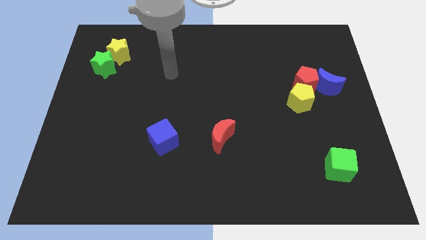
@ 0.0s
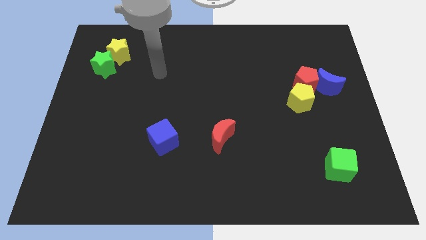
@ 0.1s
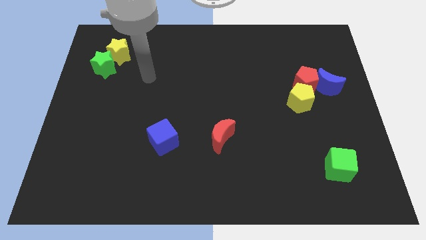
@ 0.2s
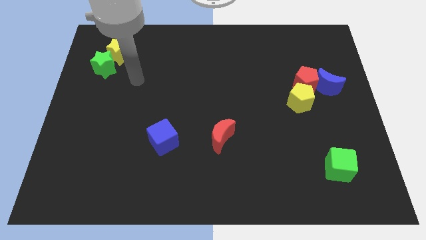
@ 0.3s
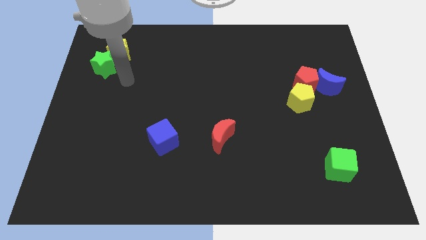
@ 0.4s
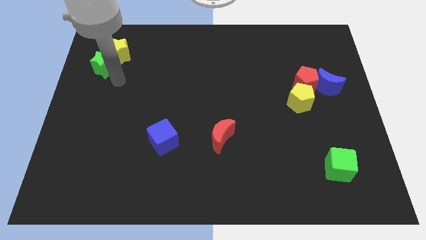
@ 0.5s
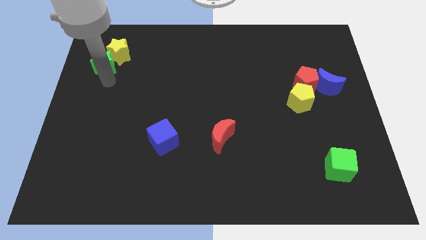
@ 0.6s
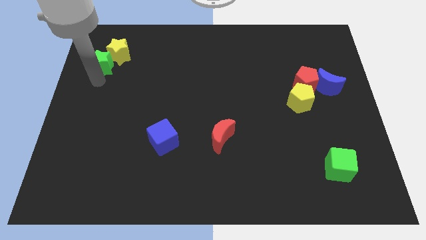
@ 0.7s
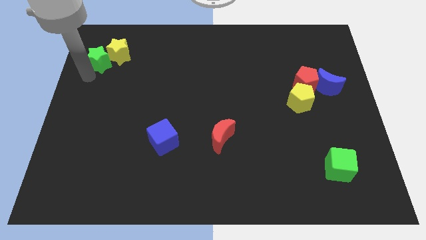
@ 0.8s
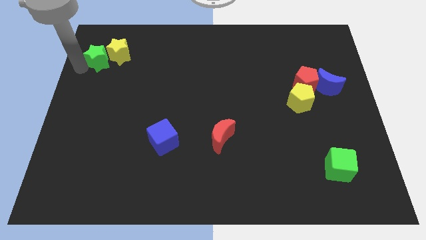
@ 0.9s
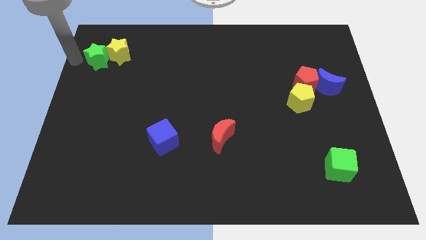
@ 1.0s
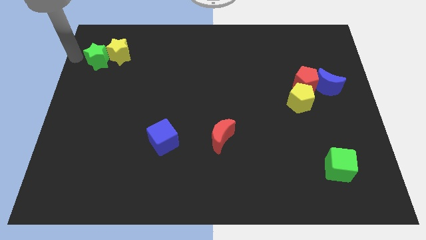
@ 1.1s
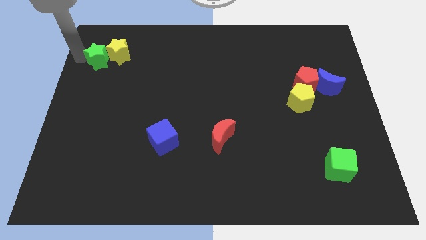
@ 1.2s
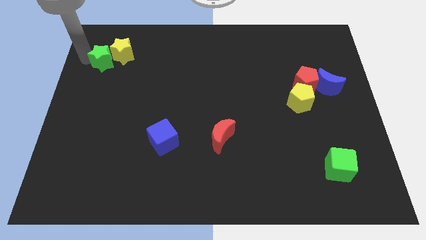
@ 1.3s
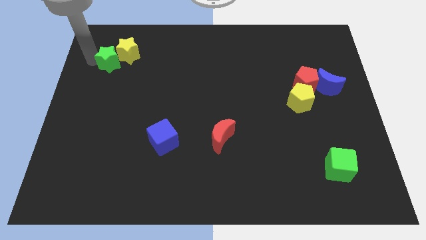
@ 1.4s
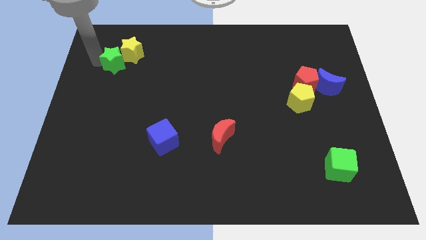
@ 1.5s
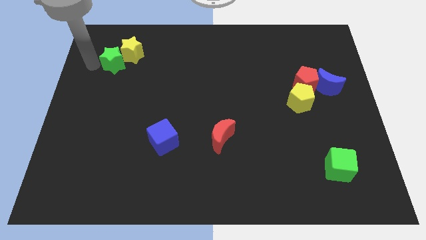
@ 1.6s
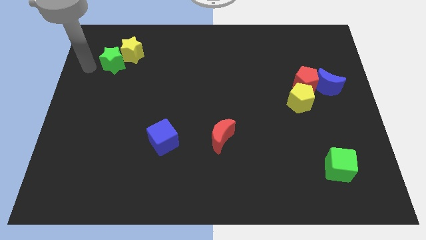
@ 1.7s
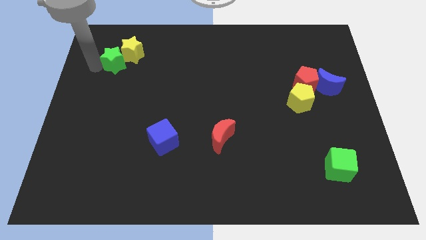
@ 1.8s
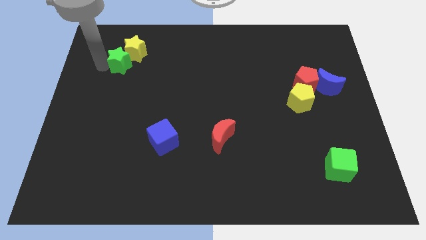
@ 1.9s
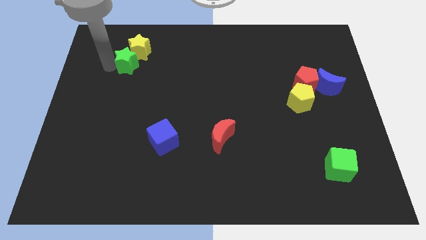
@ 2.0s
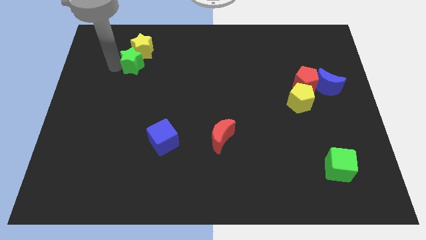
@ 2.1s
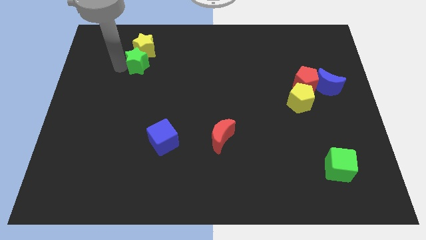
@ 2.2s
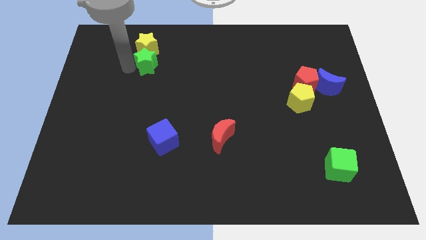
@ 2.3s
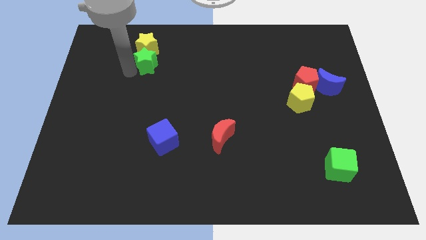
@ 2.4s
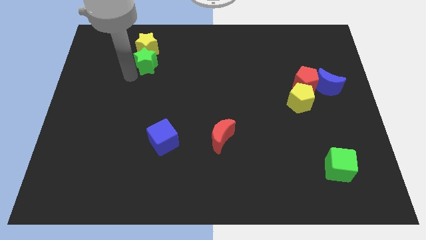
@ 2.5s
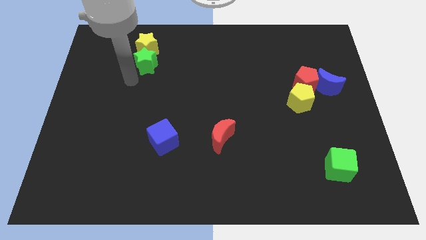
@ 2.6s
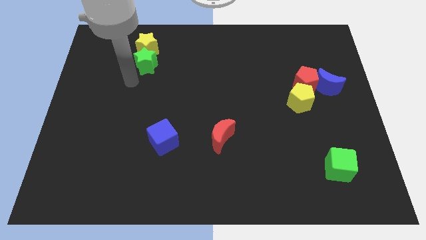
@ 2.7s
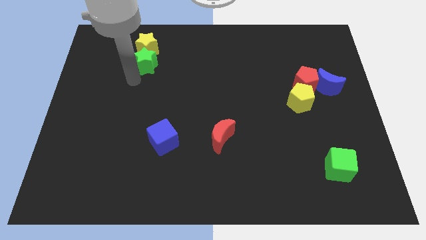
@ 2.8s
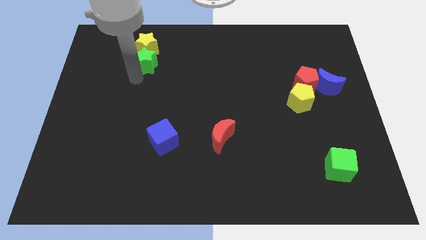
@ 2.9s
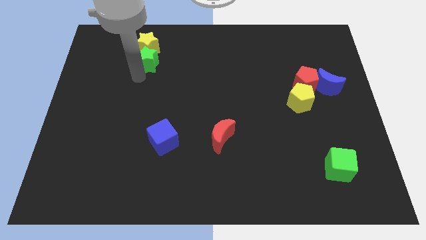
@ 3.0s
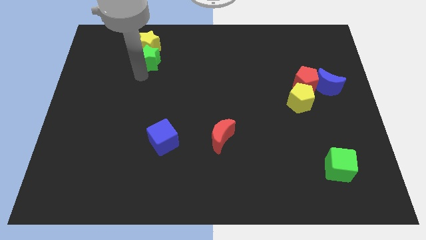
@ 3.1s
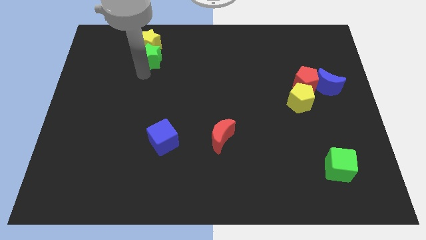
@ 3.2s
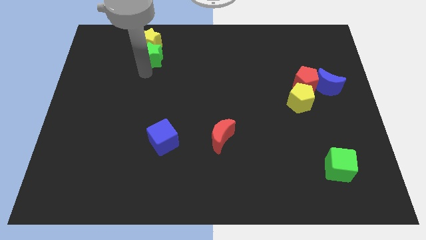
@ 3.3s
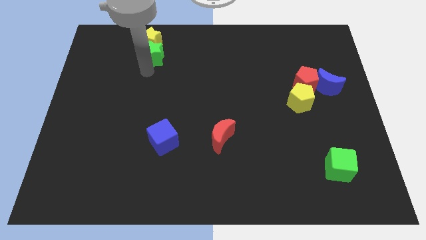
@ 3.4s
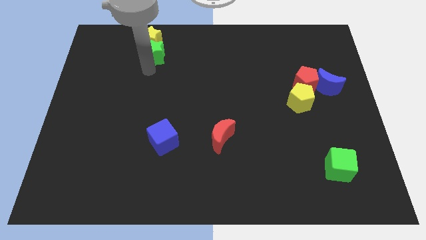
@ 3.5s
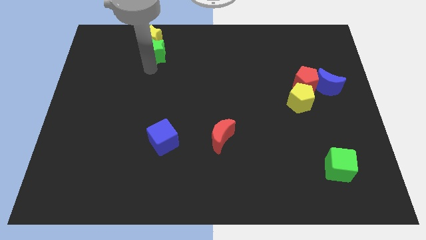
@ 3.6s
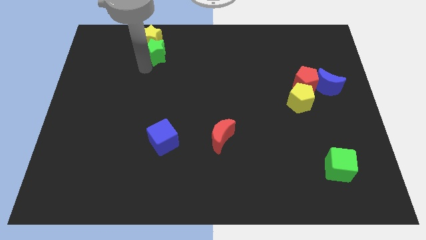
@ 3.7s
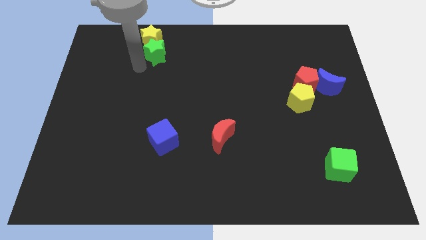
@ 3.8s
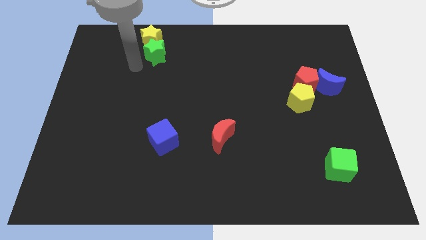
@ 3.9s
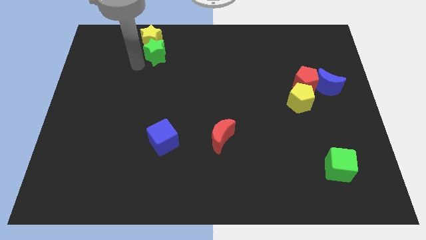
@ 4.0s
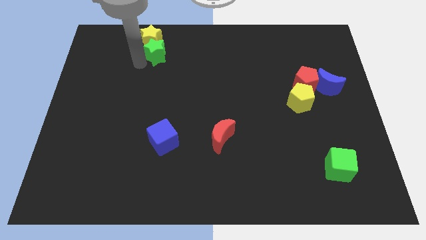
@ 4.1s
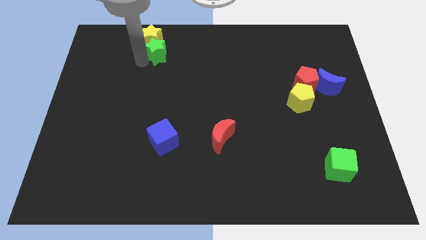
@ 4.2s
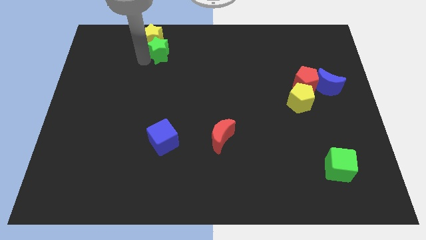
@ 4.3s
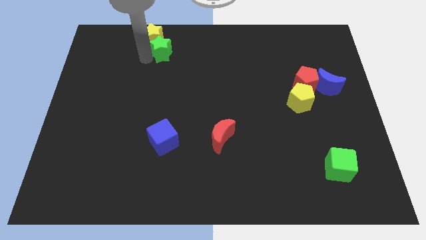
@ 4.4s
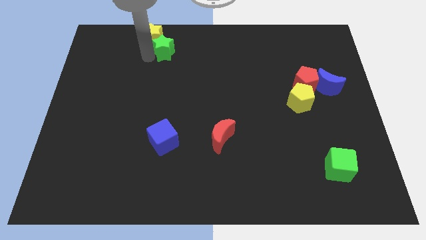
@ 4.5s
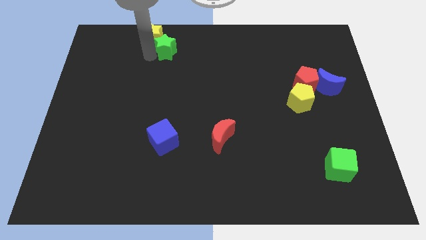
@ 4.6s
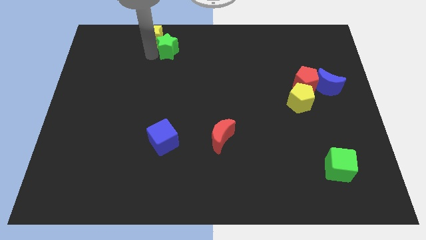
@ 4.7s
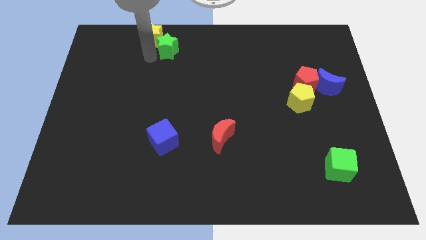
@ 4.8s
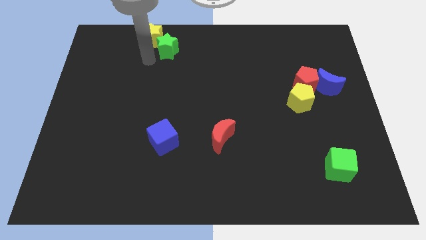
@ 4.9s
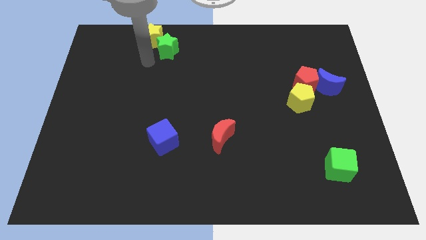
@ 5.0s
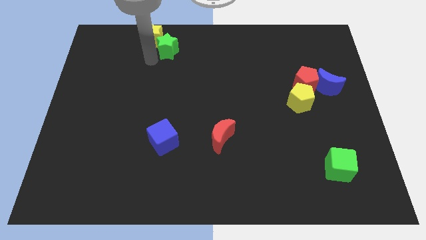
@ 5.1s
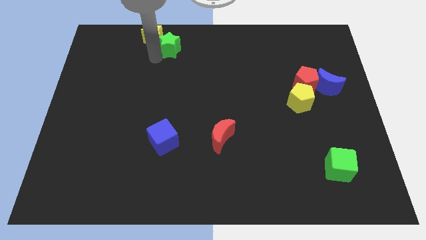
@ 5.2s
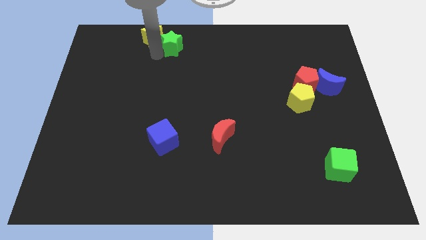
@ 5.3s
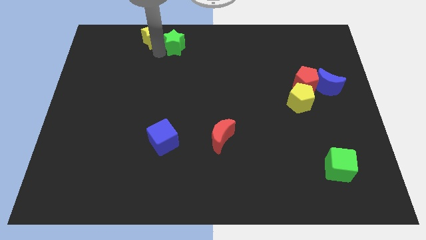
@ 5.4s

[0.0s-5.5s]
move the green star to the top side

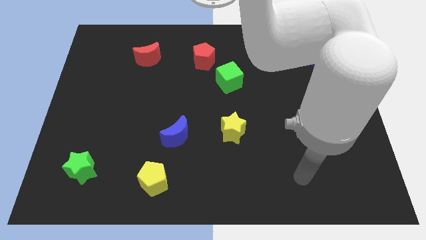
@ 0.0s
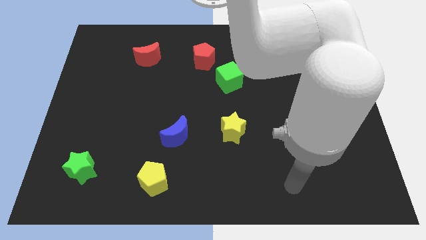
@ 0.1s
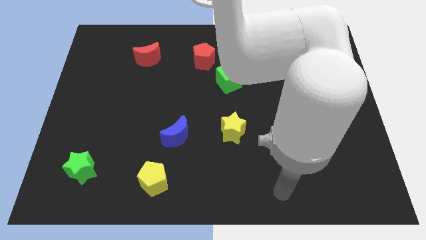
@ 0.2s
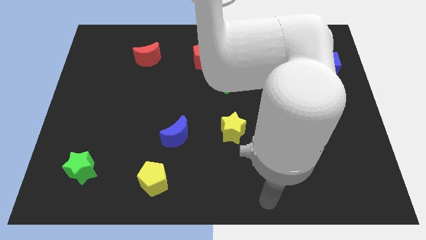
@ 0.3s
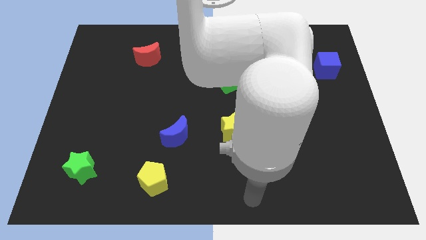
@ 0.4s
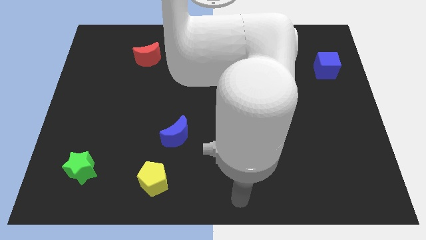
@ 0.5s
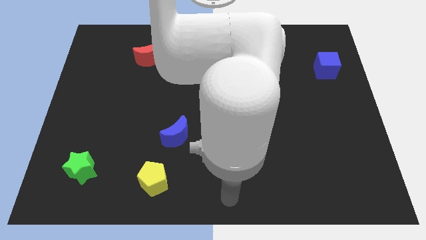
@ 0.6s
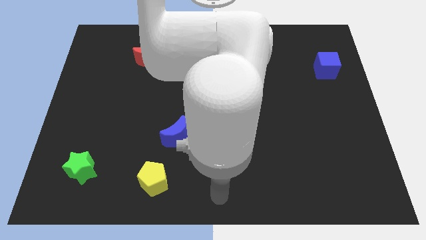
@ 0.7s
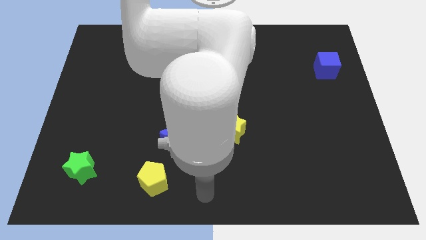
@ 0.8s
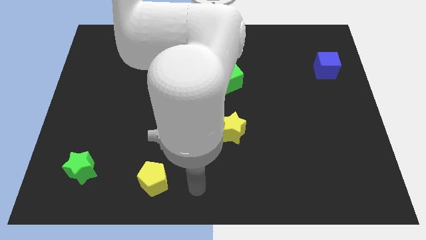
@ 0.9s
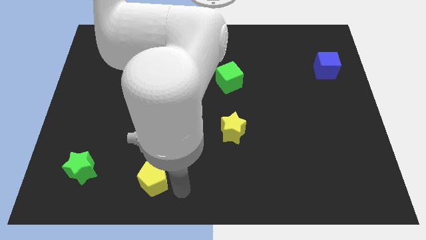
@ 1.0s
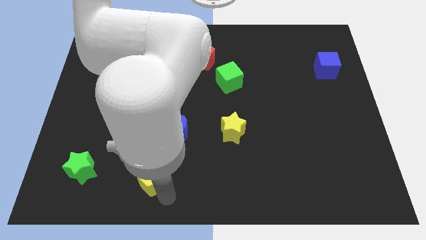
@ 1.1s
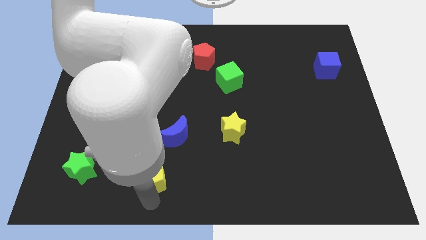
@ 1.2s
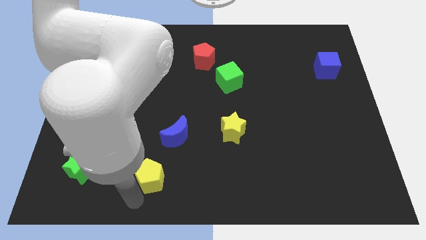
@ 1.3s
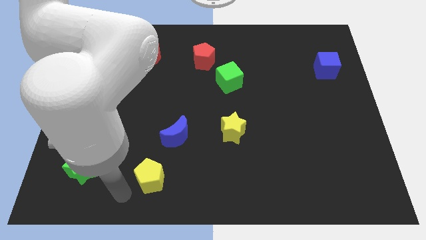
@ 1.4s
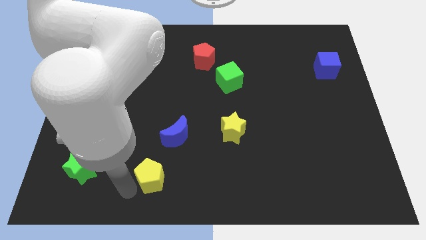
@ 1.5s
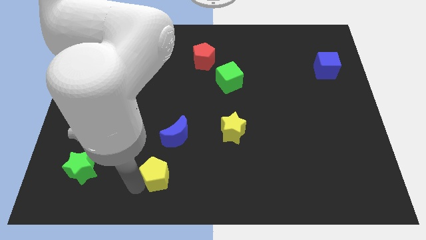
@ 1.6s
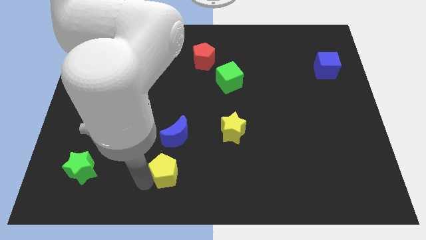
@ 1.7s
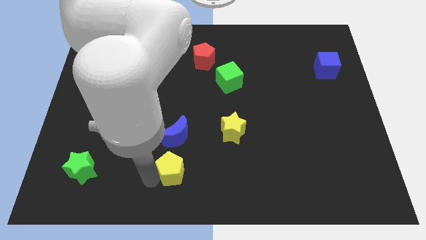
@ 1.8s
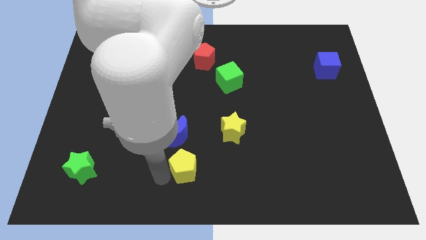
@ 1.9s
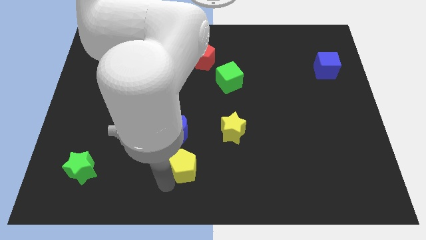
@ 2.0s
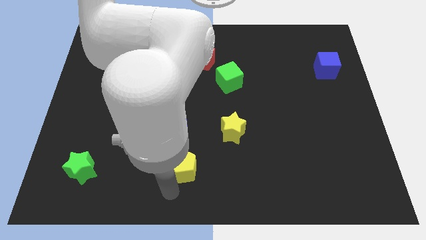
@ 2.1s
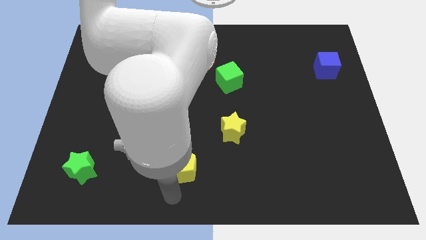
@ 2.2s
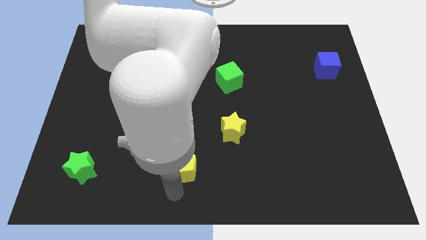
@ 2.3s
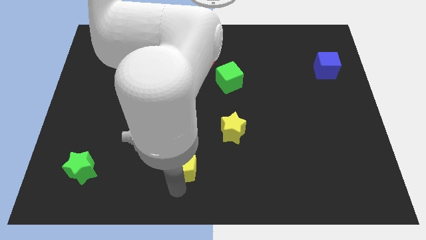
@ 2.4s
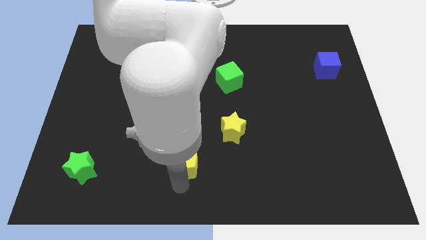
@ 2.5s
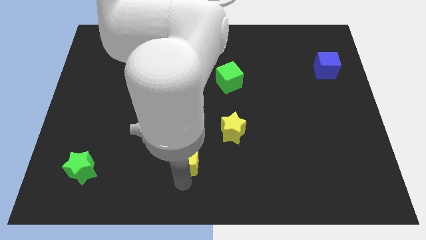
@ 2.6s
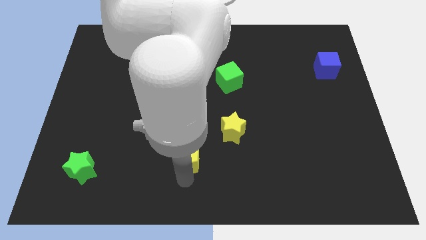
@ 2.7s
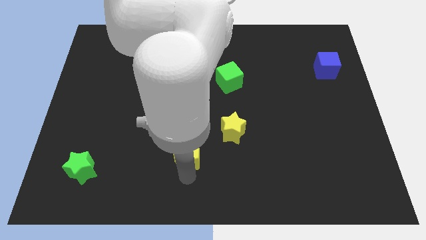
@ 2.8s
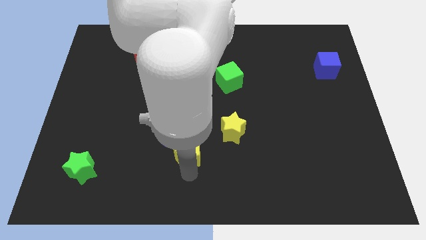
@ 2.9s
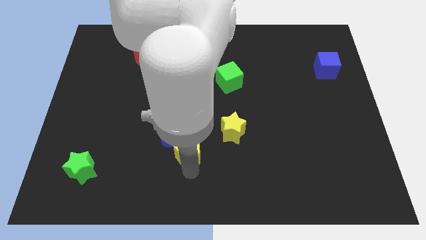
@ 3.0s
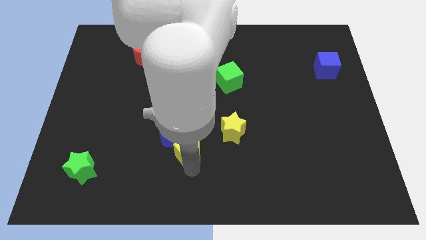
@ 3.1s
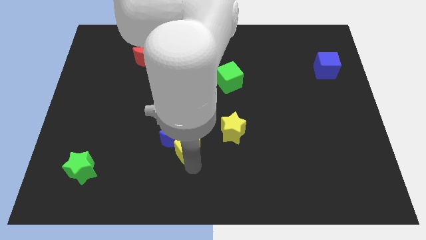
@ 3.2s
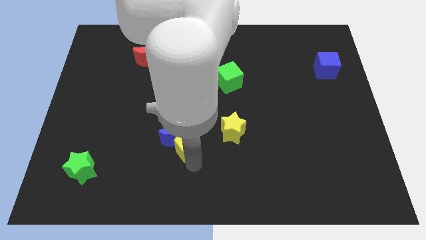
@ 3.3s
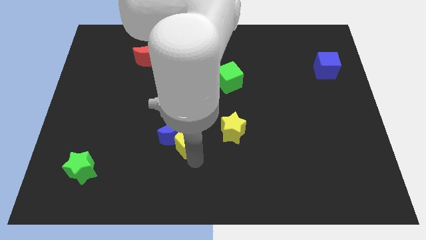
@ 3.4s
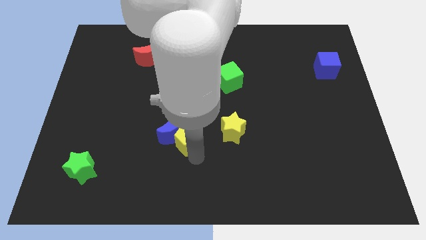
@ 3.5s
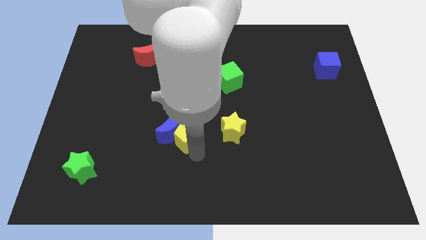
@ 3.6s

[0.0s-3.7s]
put the yellow pentagon to the middle
